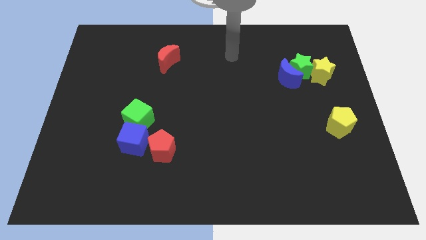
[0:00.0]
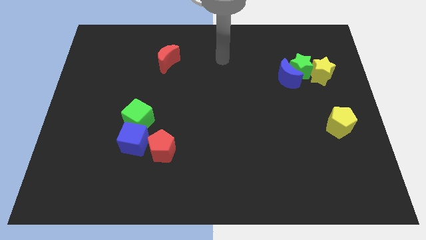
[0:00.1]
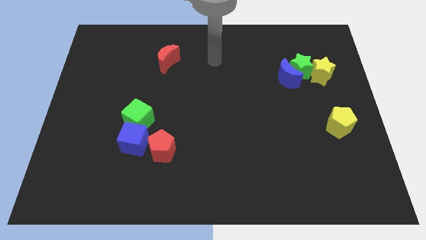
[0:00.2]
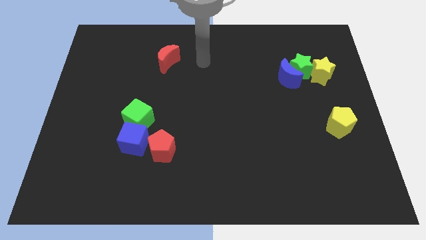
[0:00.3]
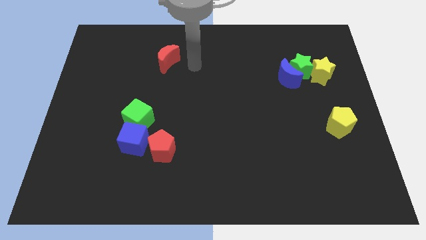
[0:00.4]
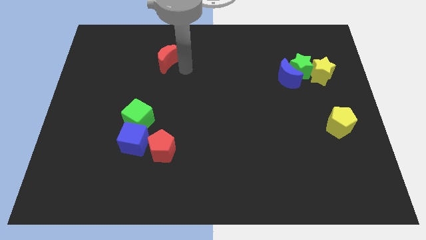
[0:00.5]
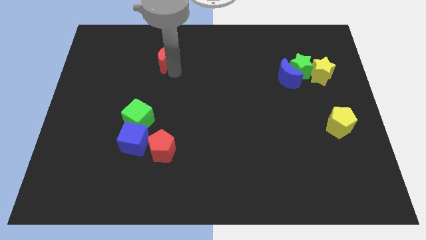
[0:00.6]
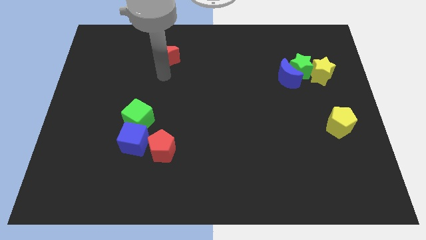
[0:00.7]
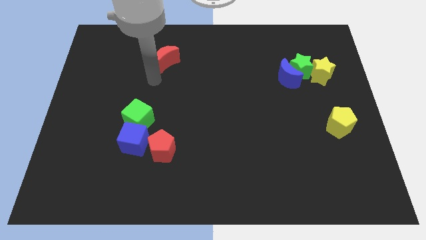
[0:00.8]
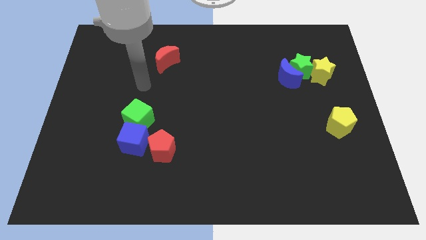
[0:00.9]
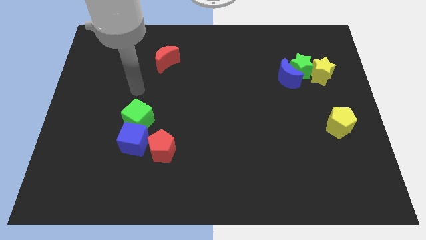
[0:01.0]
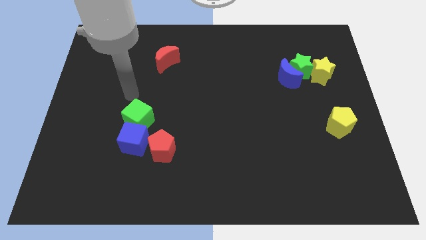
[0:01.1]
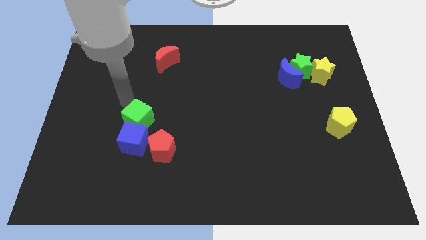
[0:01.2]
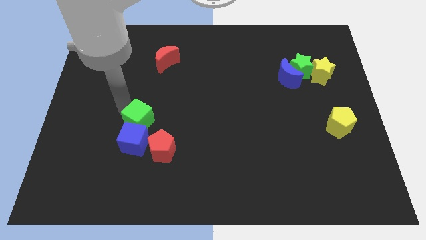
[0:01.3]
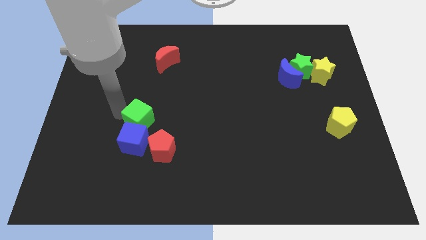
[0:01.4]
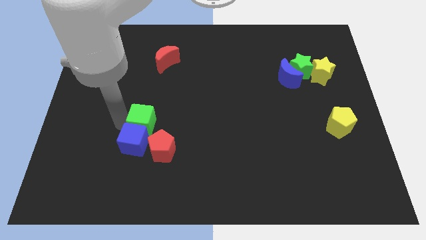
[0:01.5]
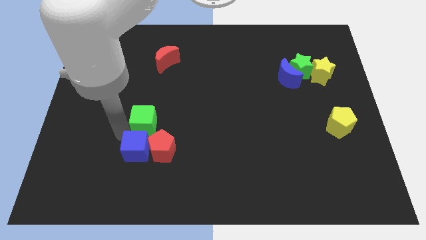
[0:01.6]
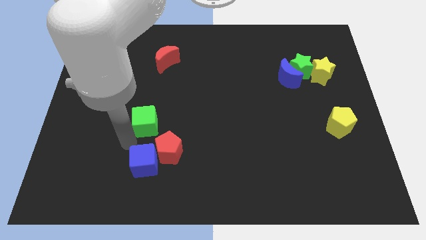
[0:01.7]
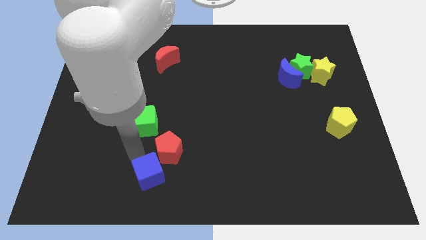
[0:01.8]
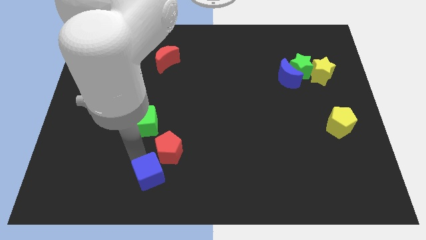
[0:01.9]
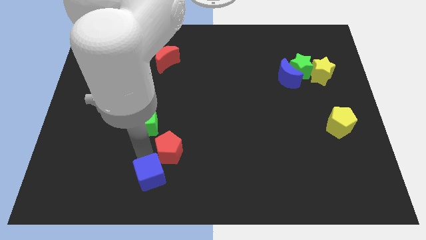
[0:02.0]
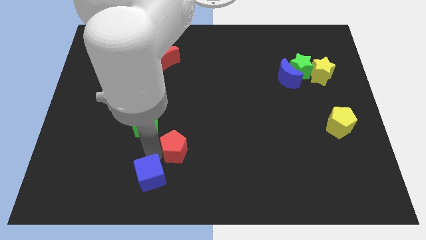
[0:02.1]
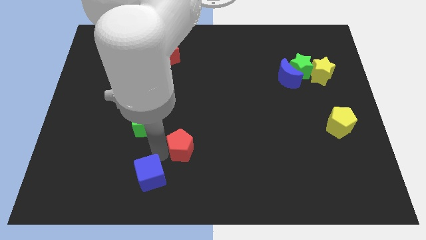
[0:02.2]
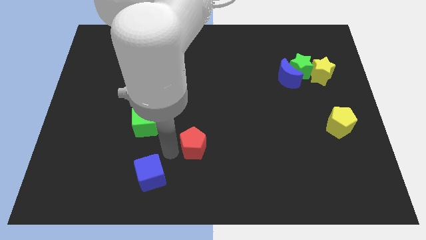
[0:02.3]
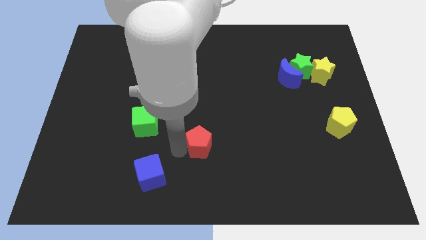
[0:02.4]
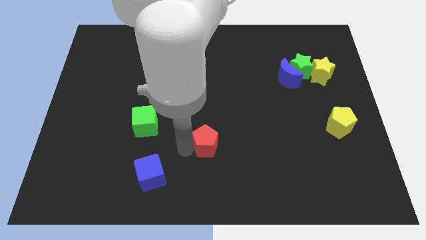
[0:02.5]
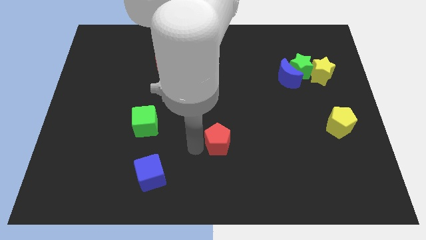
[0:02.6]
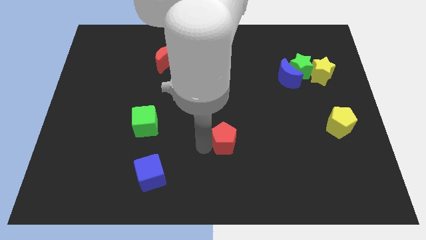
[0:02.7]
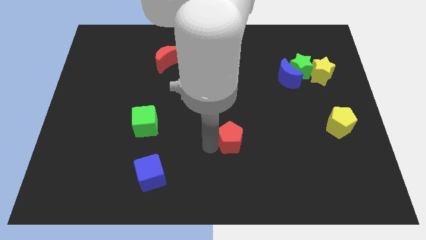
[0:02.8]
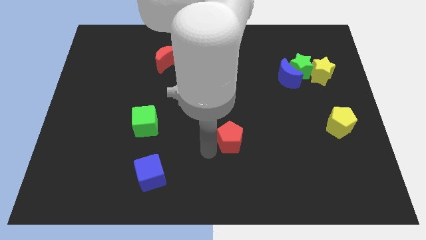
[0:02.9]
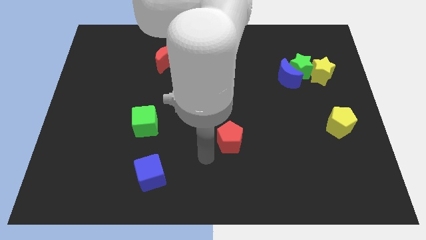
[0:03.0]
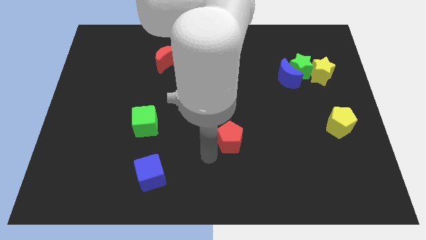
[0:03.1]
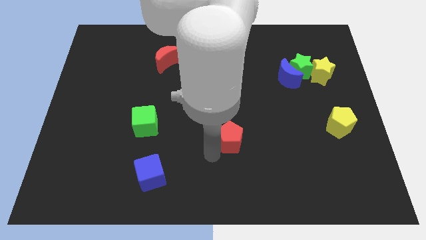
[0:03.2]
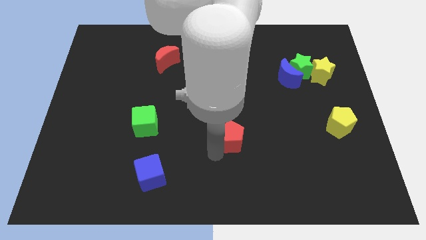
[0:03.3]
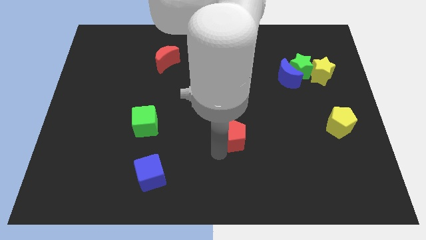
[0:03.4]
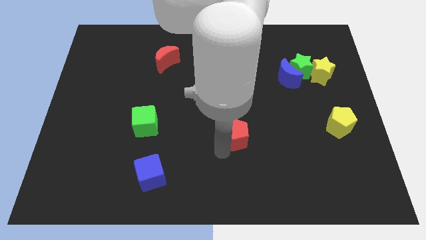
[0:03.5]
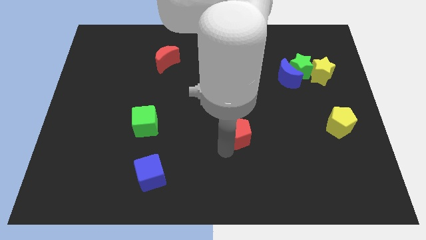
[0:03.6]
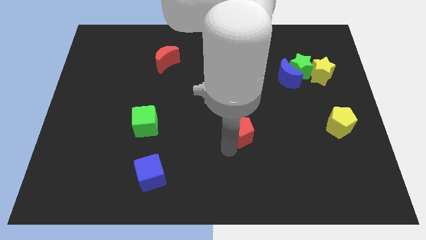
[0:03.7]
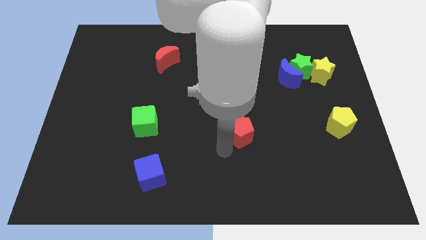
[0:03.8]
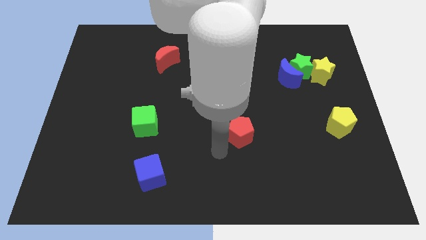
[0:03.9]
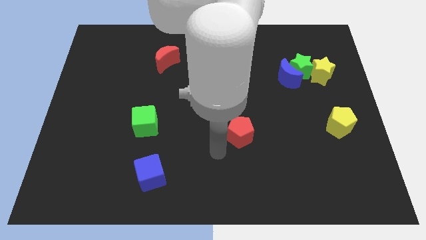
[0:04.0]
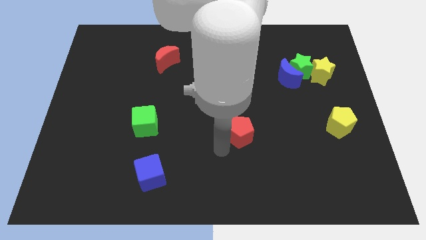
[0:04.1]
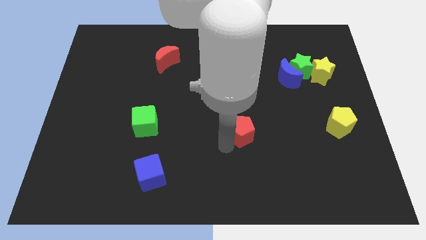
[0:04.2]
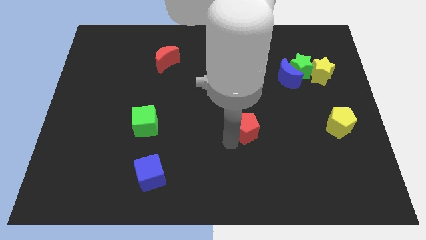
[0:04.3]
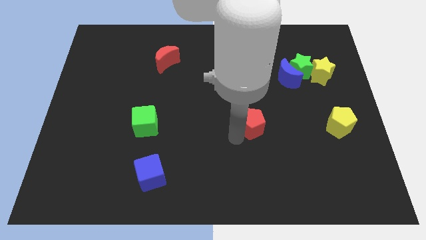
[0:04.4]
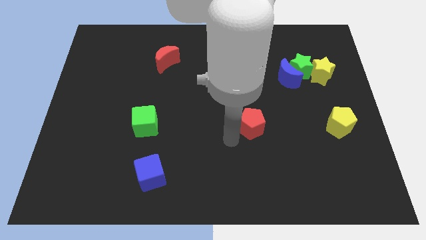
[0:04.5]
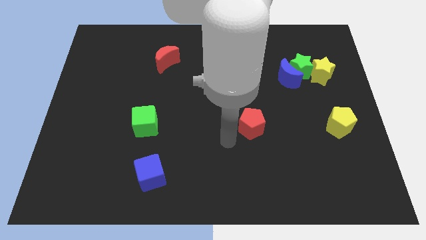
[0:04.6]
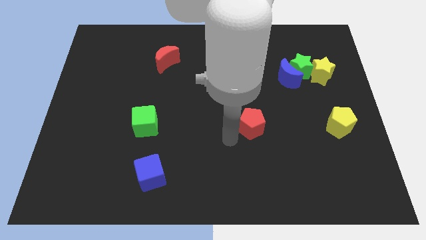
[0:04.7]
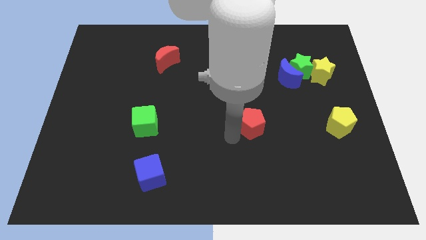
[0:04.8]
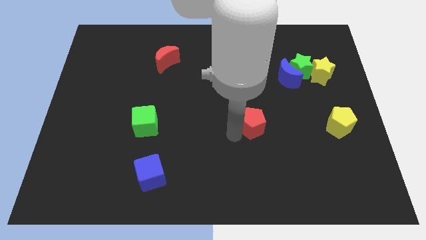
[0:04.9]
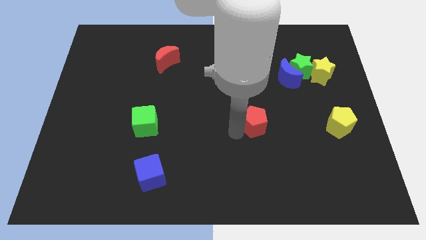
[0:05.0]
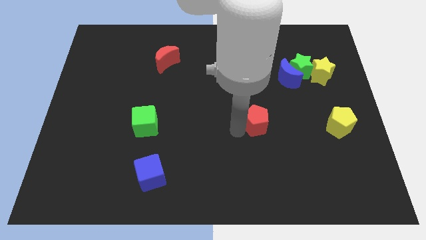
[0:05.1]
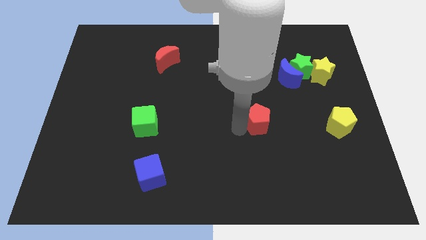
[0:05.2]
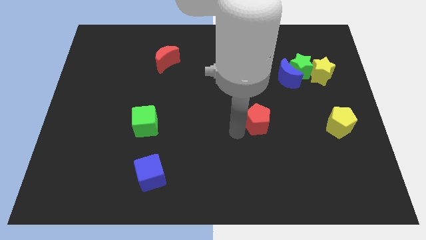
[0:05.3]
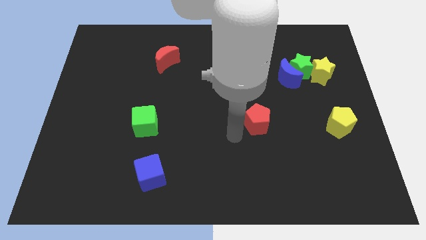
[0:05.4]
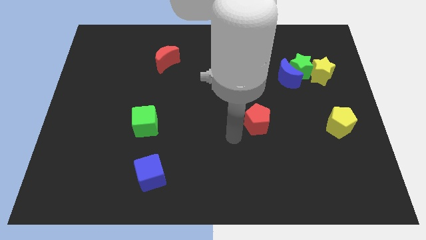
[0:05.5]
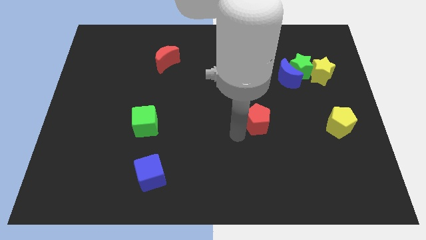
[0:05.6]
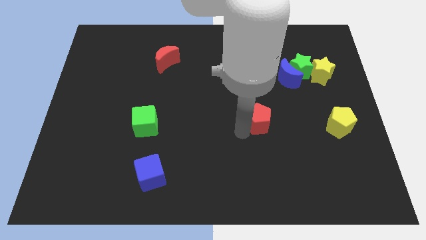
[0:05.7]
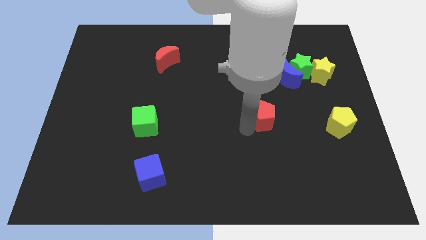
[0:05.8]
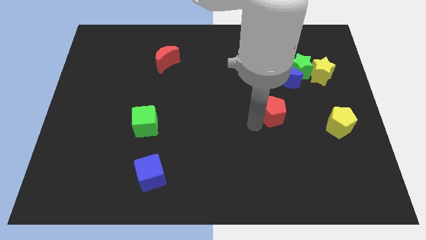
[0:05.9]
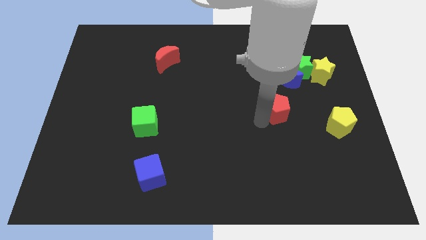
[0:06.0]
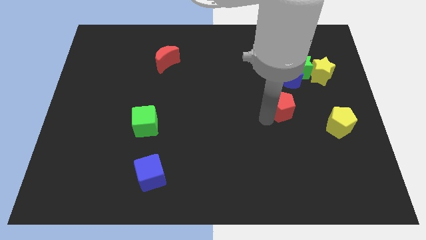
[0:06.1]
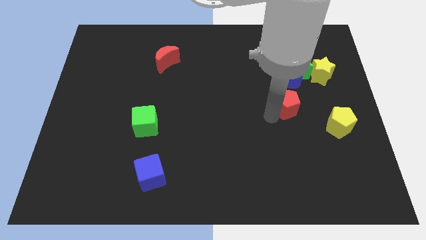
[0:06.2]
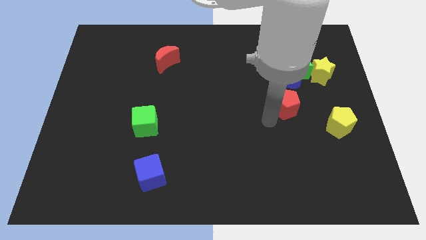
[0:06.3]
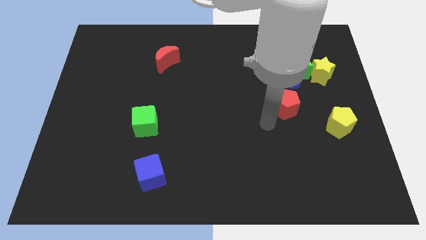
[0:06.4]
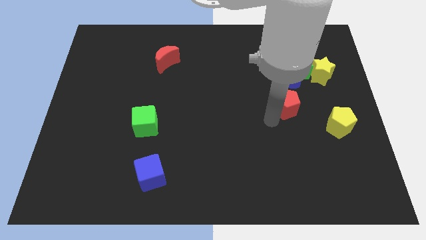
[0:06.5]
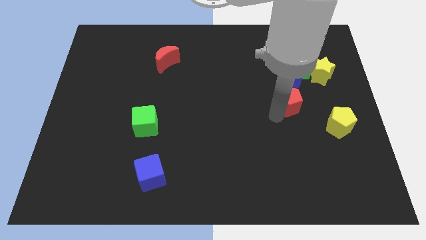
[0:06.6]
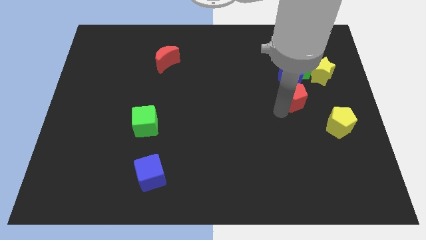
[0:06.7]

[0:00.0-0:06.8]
push the red pentagon diagonally down and to the left of the yellow star
